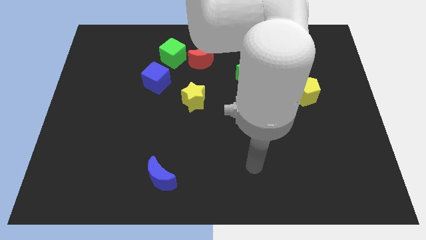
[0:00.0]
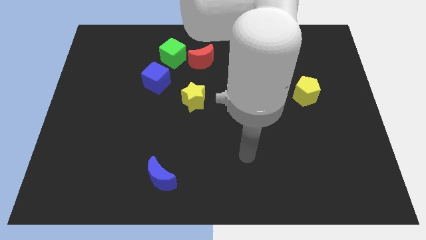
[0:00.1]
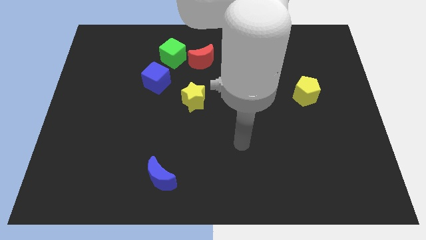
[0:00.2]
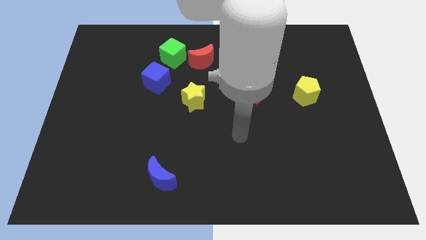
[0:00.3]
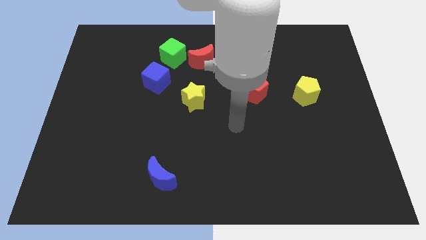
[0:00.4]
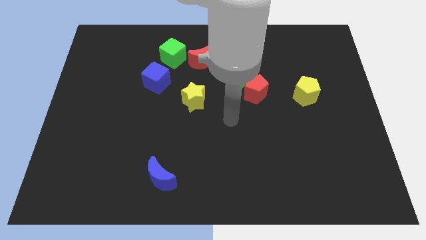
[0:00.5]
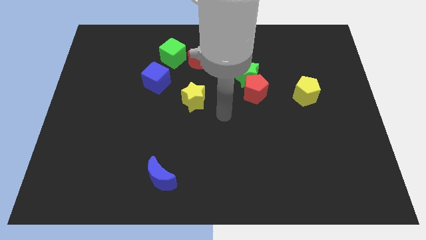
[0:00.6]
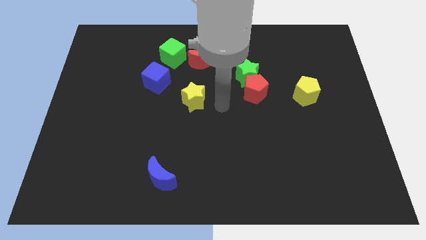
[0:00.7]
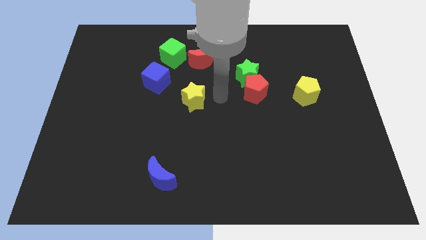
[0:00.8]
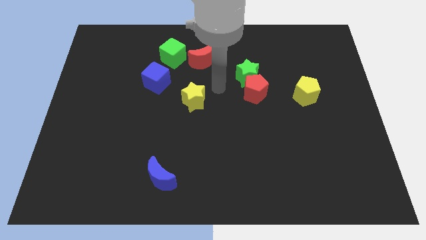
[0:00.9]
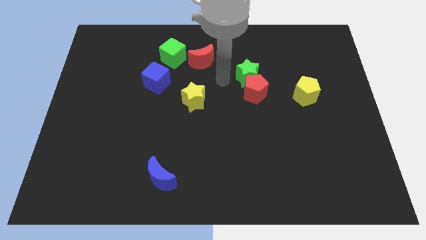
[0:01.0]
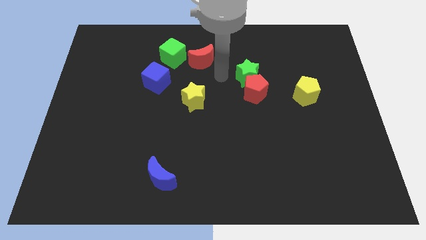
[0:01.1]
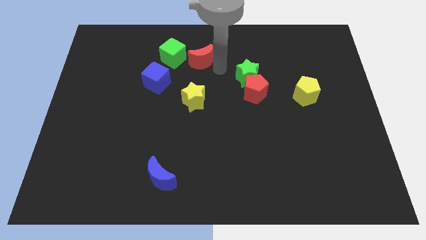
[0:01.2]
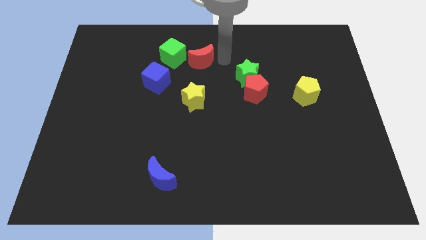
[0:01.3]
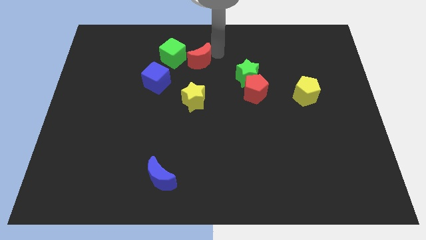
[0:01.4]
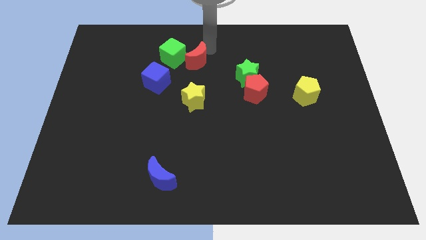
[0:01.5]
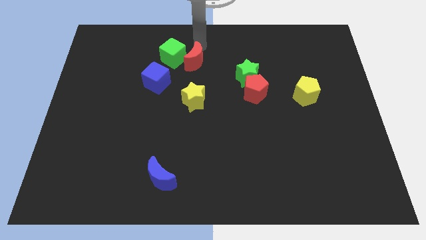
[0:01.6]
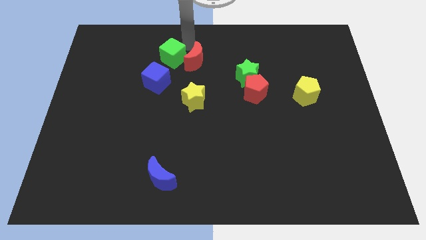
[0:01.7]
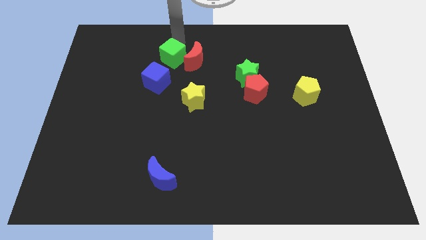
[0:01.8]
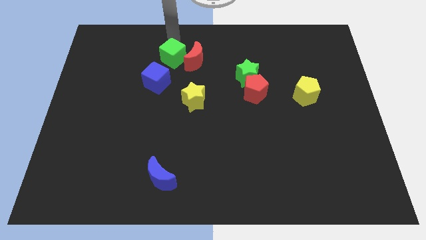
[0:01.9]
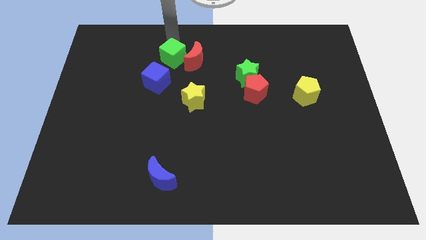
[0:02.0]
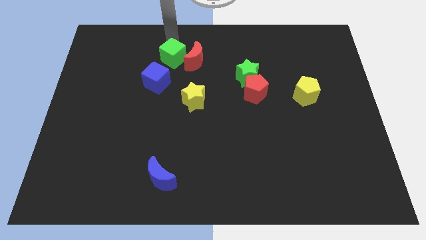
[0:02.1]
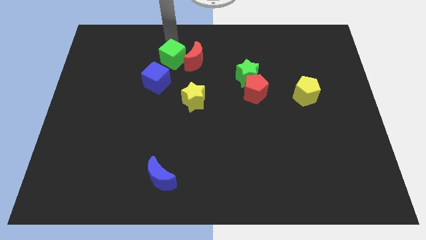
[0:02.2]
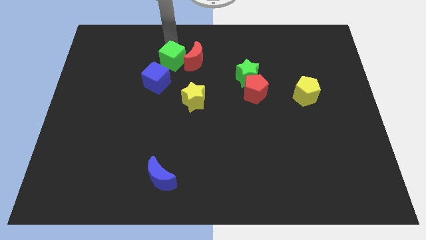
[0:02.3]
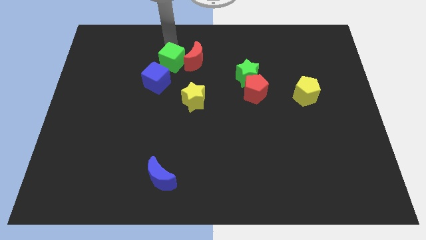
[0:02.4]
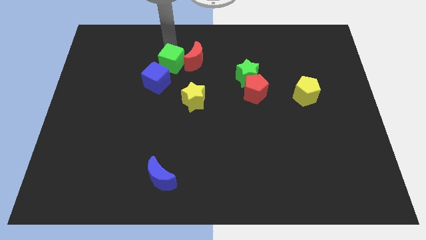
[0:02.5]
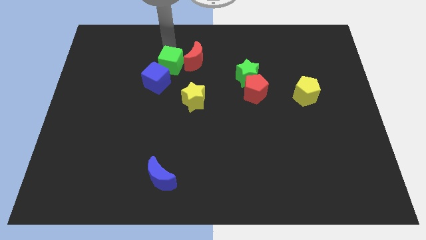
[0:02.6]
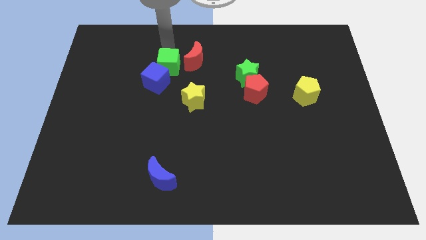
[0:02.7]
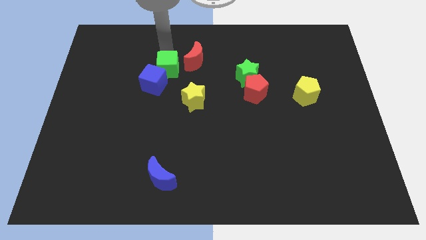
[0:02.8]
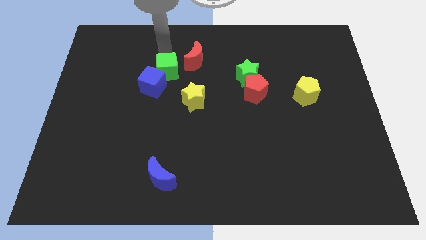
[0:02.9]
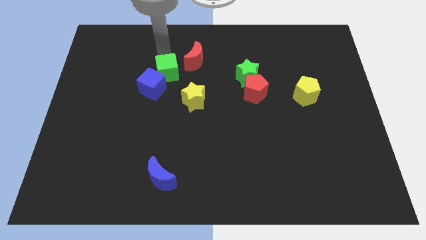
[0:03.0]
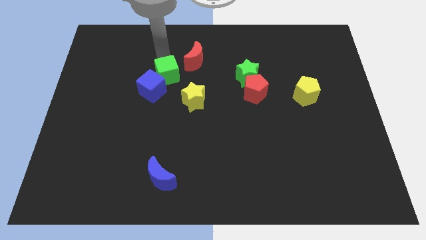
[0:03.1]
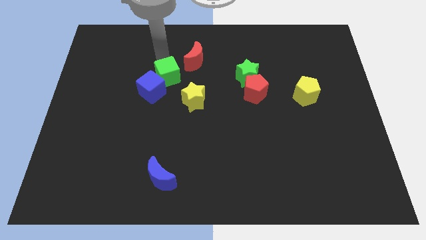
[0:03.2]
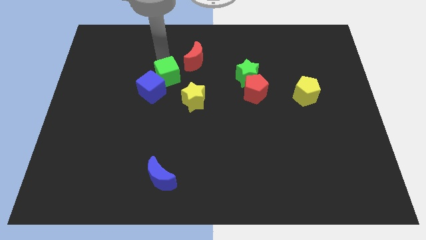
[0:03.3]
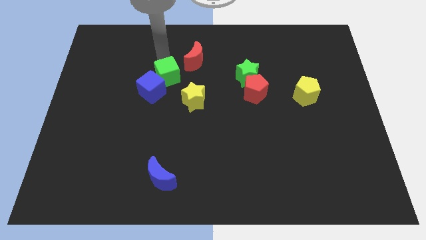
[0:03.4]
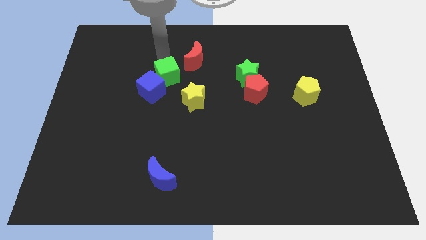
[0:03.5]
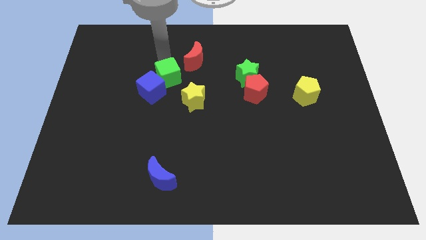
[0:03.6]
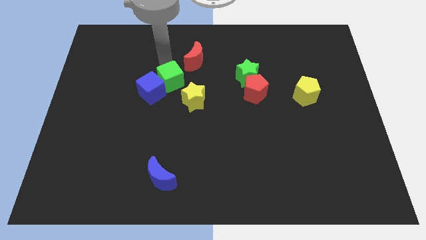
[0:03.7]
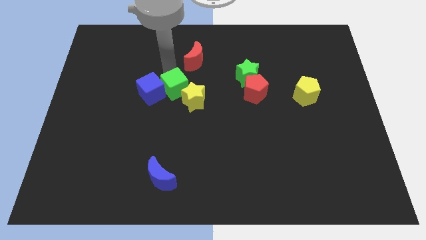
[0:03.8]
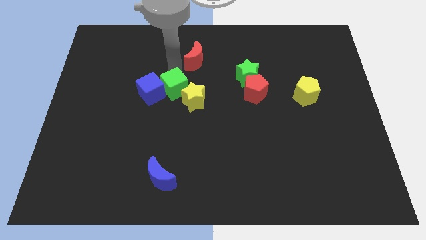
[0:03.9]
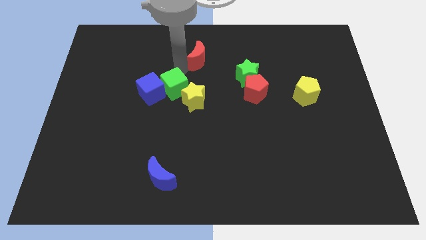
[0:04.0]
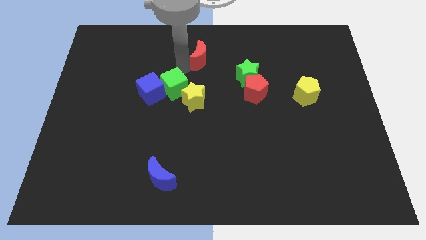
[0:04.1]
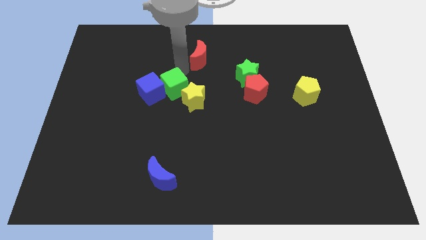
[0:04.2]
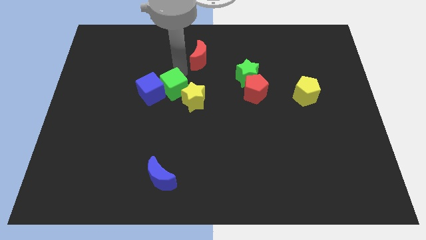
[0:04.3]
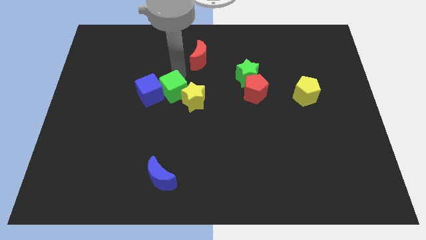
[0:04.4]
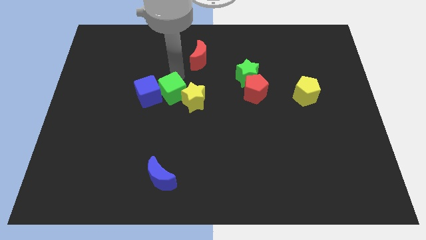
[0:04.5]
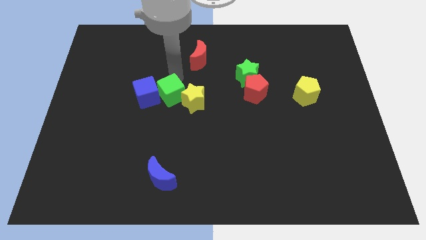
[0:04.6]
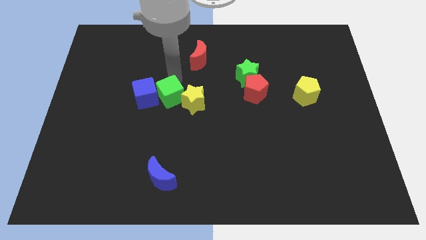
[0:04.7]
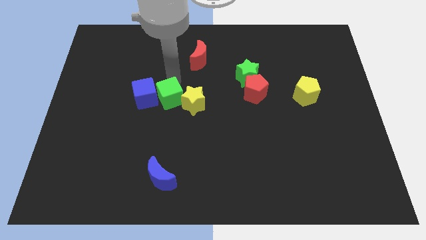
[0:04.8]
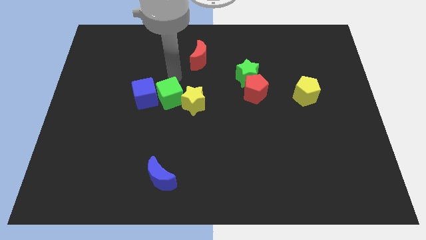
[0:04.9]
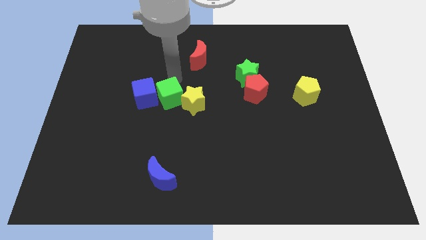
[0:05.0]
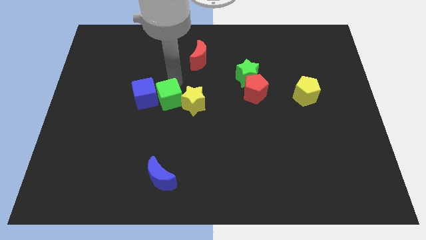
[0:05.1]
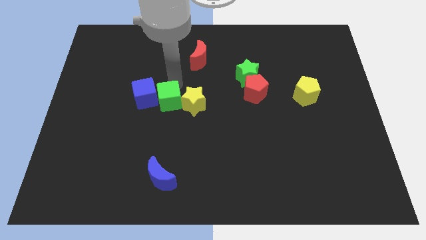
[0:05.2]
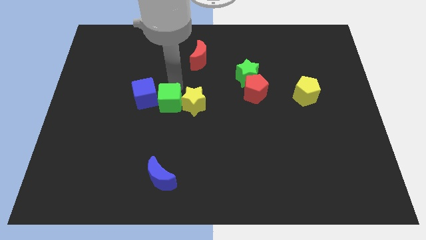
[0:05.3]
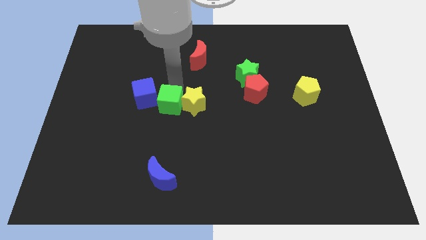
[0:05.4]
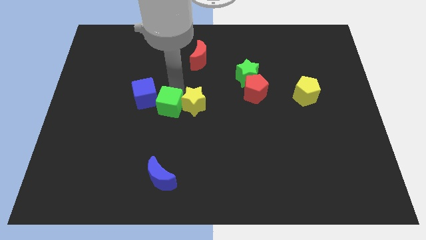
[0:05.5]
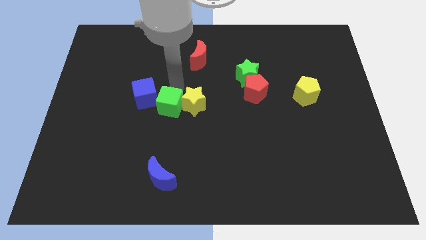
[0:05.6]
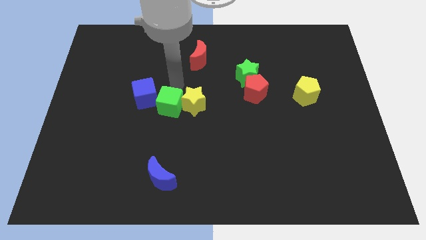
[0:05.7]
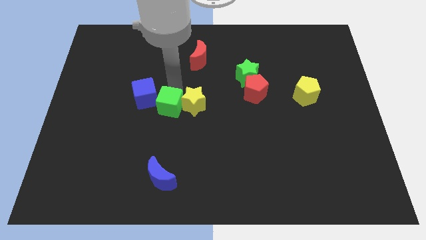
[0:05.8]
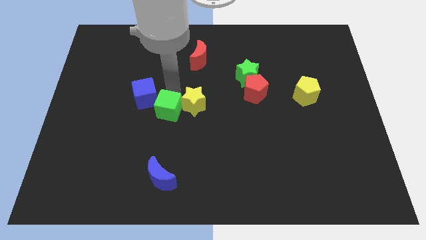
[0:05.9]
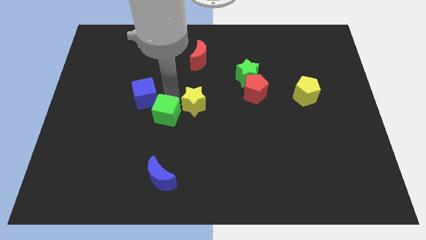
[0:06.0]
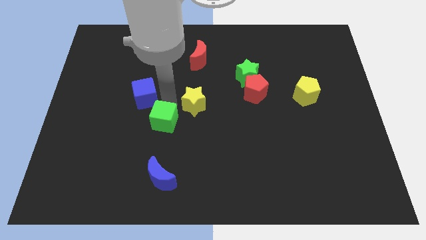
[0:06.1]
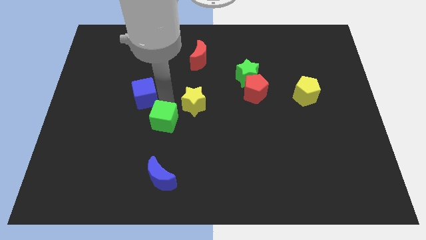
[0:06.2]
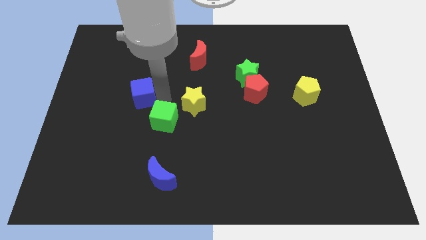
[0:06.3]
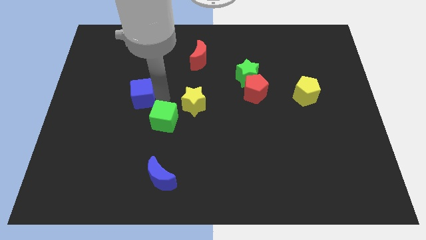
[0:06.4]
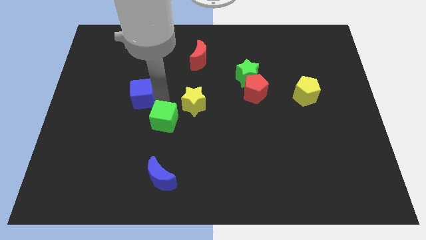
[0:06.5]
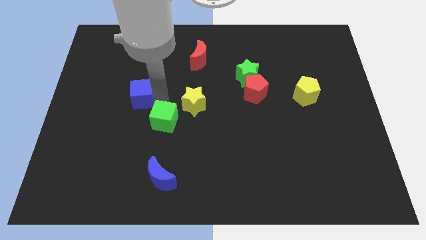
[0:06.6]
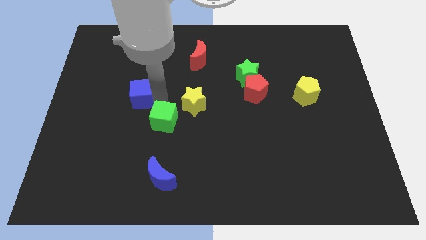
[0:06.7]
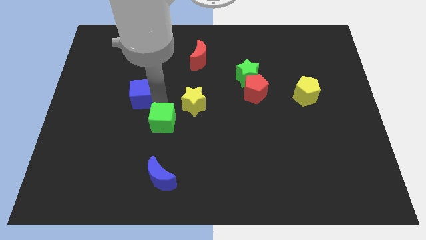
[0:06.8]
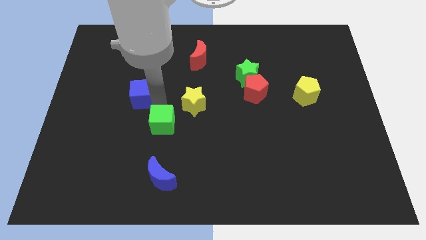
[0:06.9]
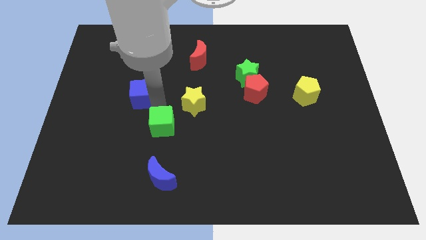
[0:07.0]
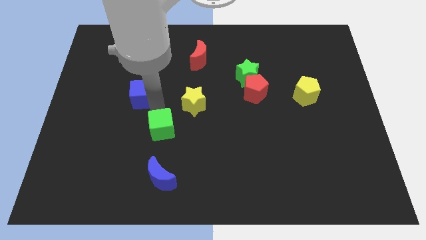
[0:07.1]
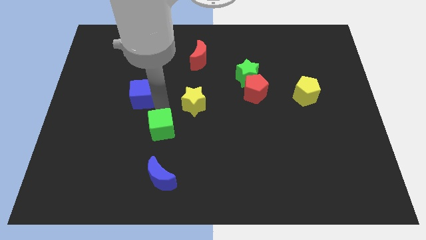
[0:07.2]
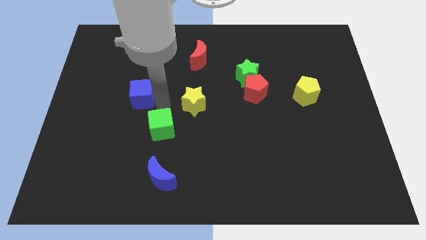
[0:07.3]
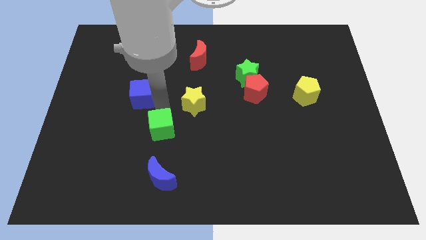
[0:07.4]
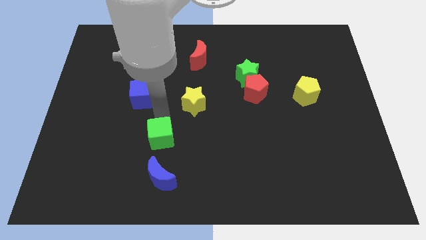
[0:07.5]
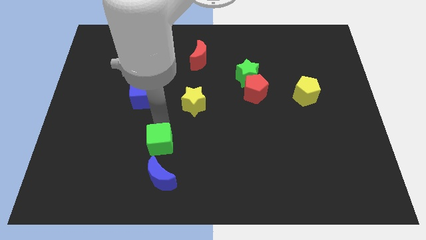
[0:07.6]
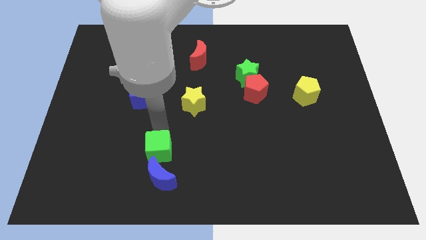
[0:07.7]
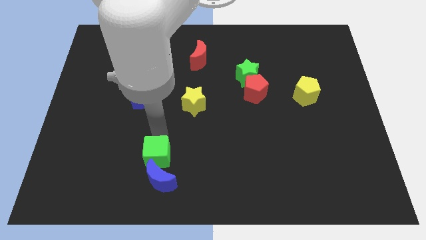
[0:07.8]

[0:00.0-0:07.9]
slide the green cube towards the blue moon
